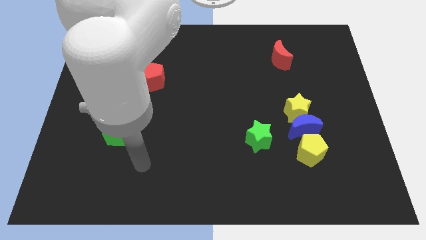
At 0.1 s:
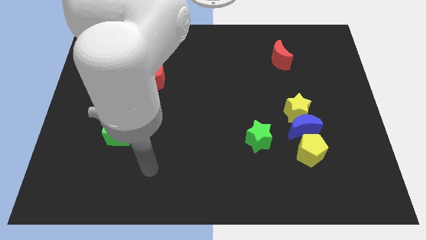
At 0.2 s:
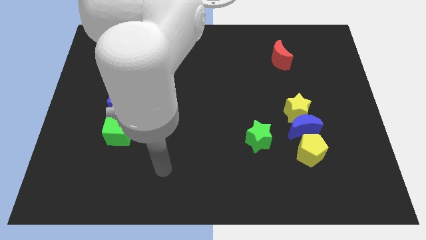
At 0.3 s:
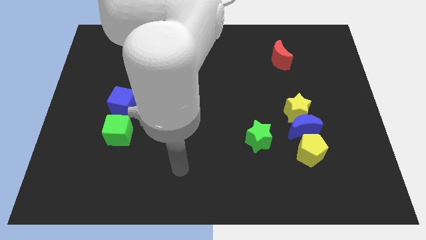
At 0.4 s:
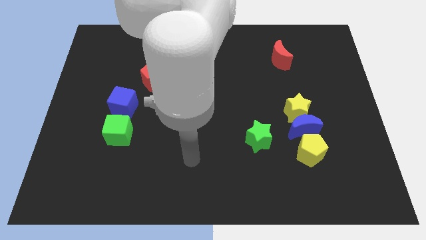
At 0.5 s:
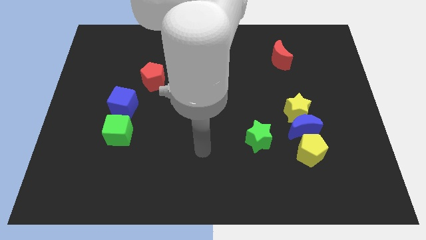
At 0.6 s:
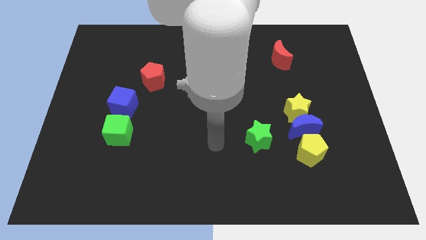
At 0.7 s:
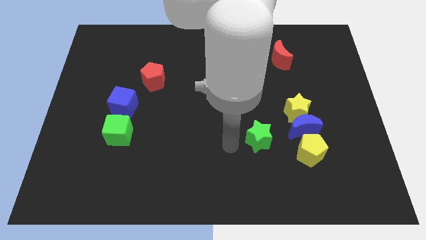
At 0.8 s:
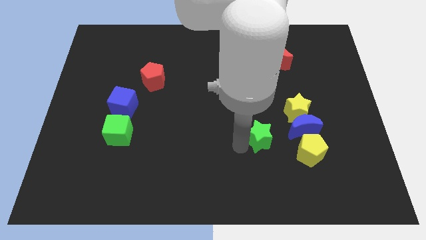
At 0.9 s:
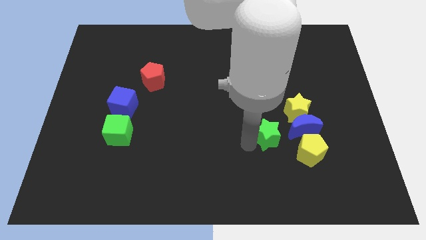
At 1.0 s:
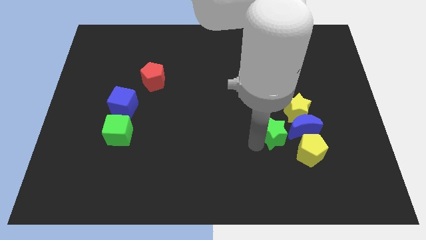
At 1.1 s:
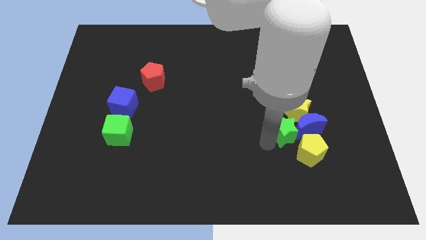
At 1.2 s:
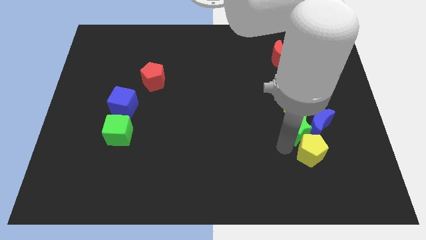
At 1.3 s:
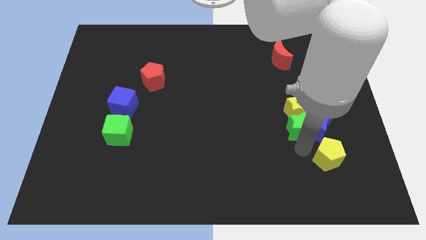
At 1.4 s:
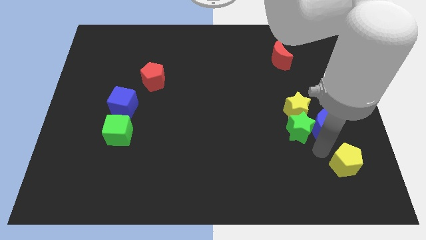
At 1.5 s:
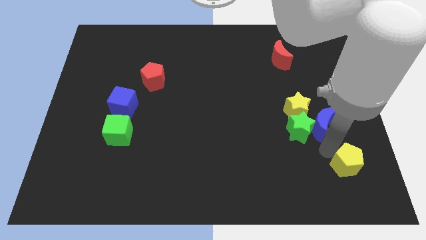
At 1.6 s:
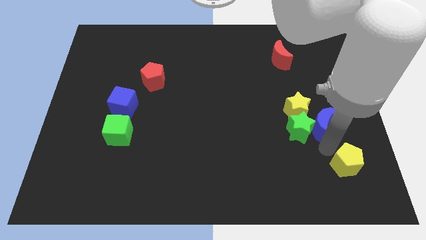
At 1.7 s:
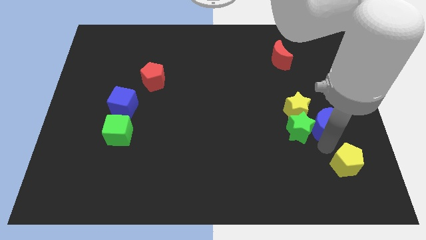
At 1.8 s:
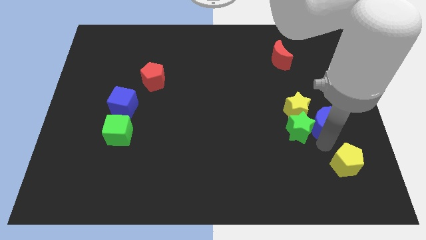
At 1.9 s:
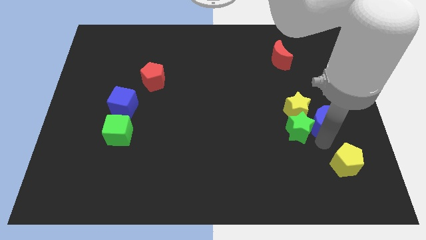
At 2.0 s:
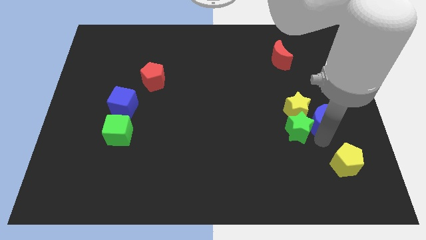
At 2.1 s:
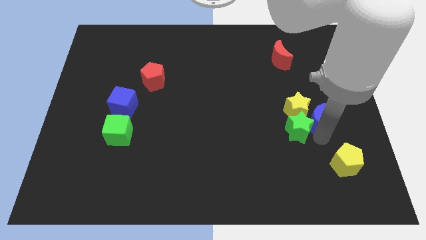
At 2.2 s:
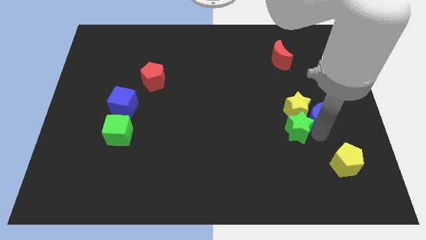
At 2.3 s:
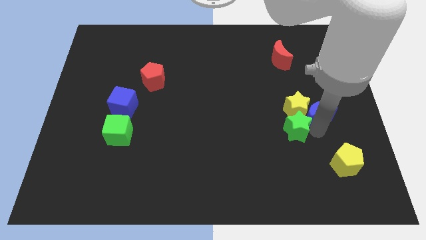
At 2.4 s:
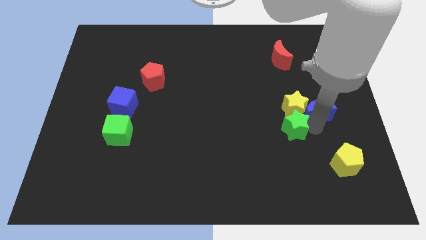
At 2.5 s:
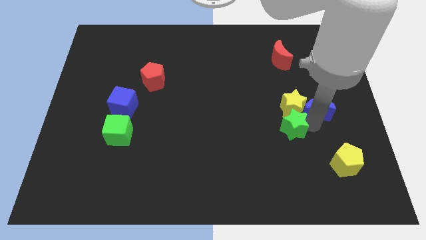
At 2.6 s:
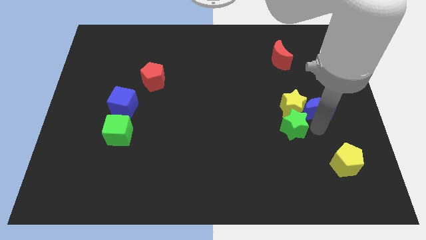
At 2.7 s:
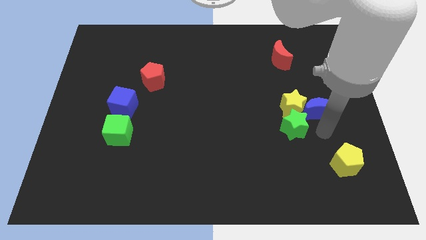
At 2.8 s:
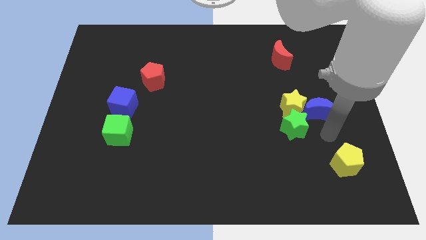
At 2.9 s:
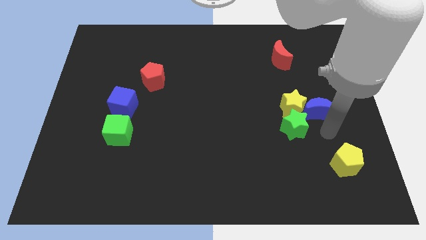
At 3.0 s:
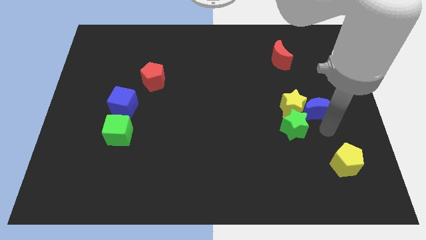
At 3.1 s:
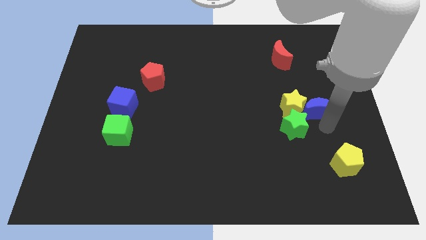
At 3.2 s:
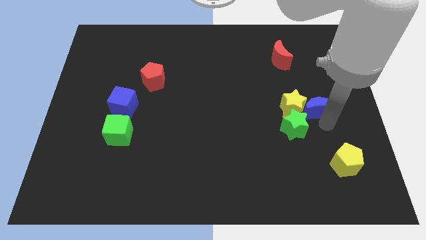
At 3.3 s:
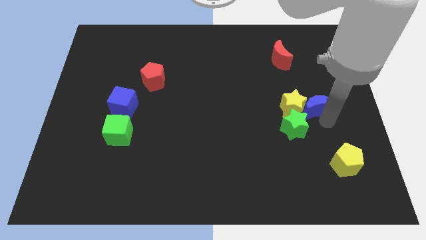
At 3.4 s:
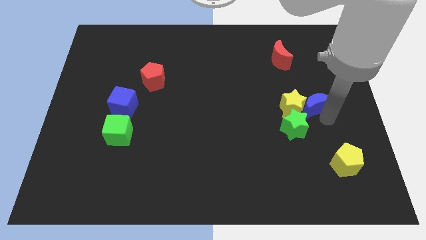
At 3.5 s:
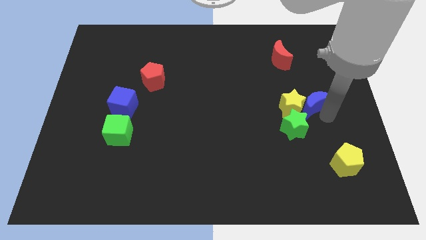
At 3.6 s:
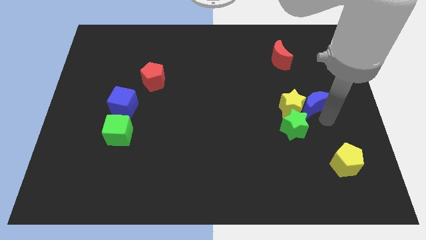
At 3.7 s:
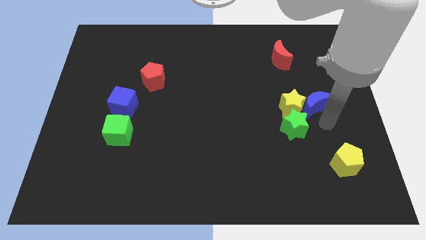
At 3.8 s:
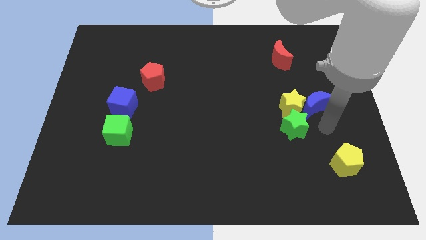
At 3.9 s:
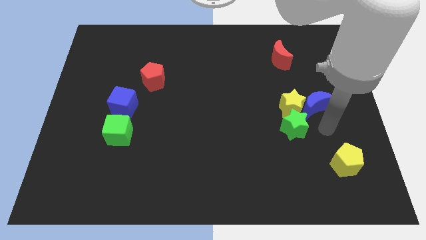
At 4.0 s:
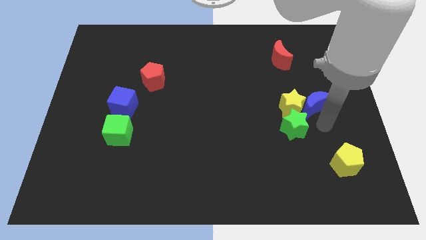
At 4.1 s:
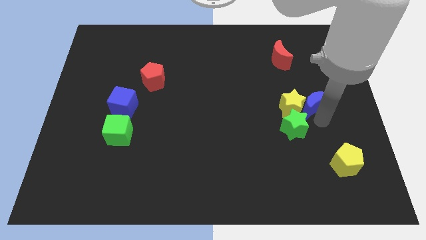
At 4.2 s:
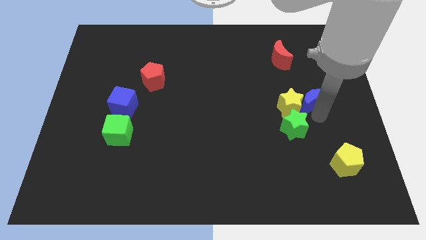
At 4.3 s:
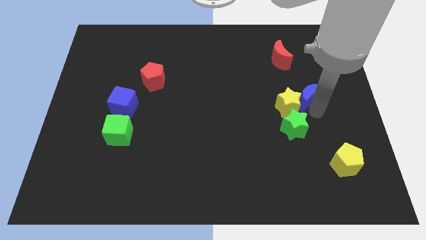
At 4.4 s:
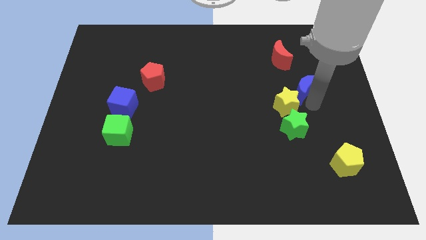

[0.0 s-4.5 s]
push the blue moon above the yellow star

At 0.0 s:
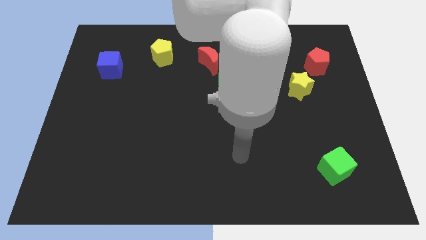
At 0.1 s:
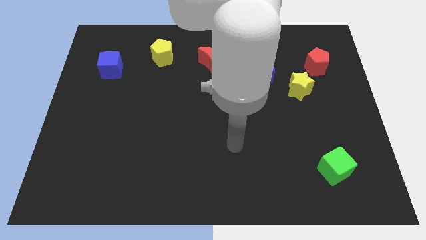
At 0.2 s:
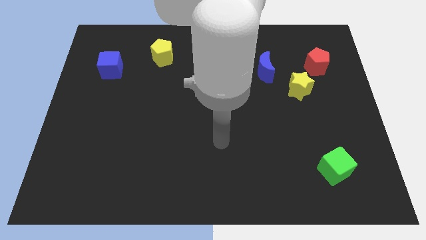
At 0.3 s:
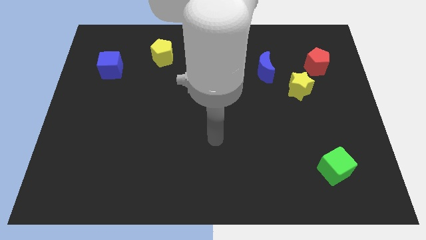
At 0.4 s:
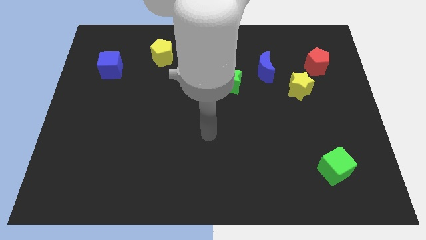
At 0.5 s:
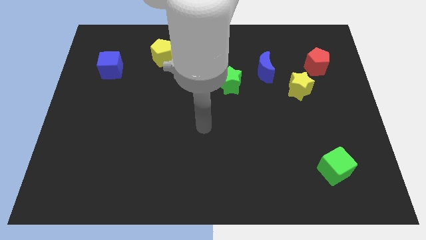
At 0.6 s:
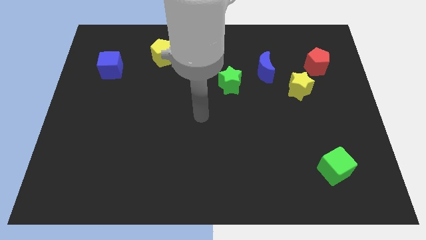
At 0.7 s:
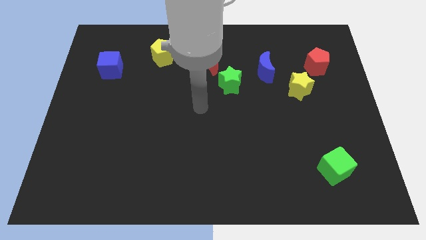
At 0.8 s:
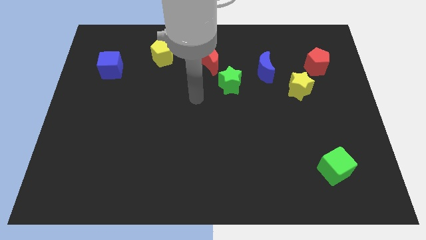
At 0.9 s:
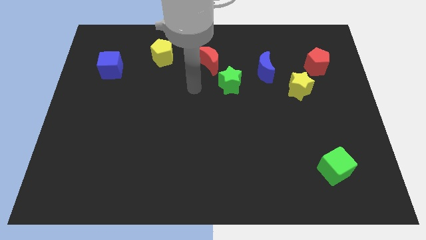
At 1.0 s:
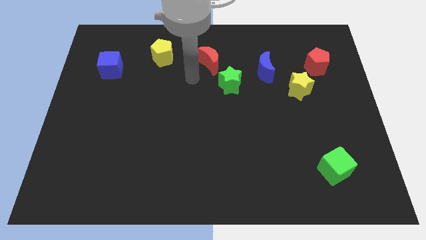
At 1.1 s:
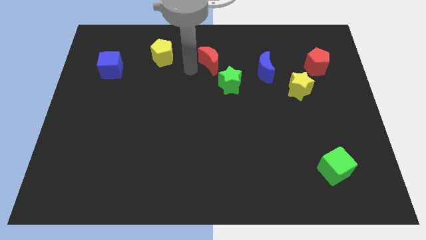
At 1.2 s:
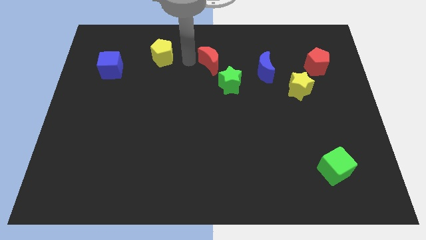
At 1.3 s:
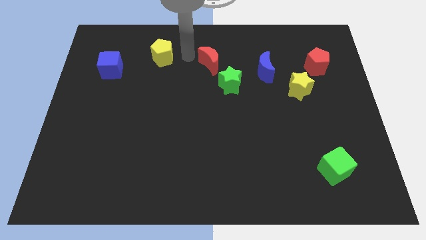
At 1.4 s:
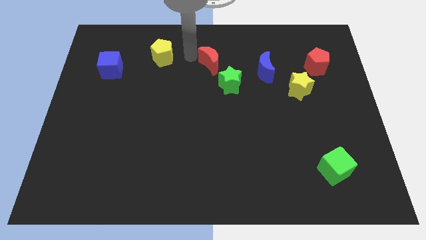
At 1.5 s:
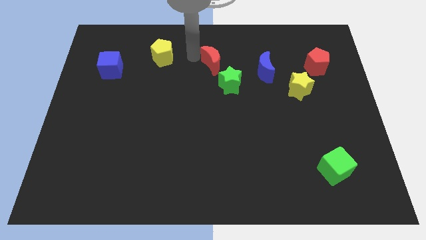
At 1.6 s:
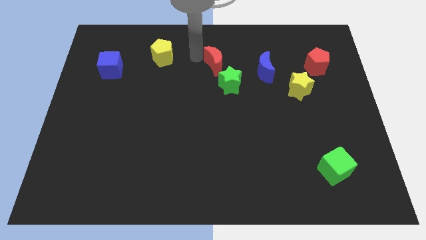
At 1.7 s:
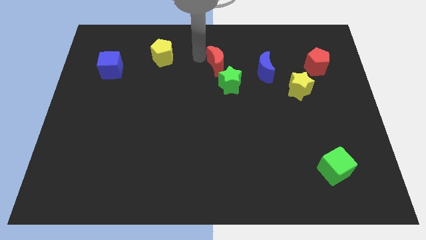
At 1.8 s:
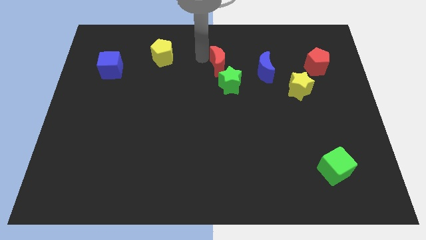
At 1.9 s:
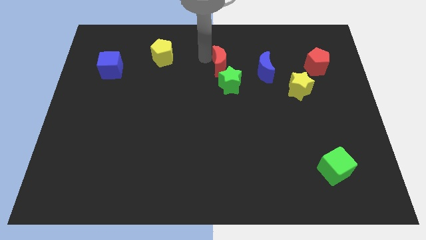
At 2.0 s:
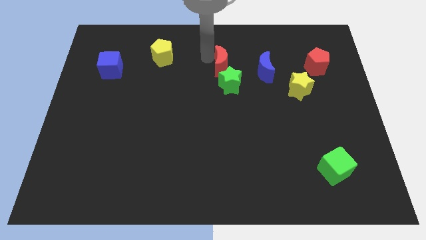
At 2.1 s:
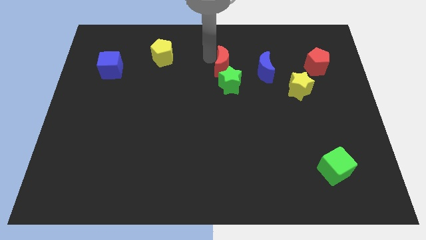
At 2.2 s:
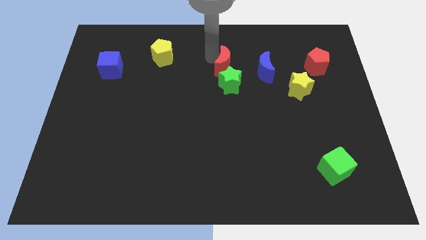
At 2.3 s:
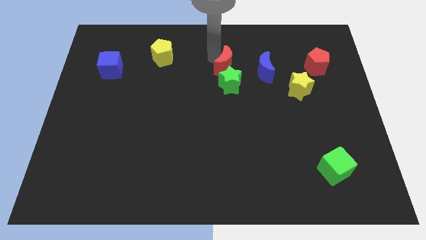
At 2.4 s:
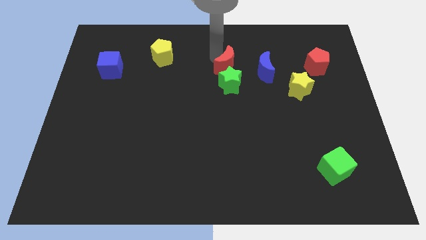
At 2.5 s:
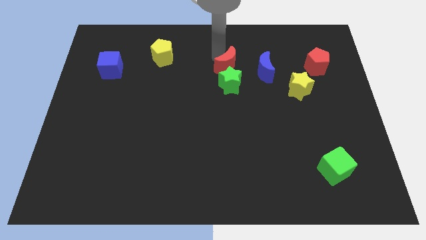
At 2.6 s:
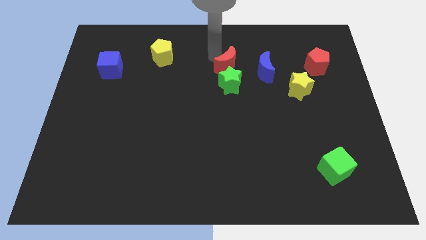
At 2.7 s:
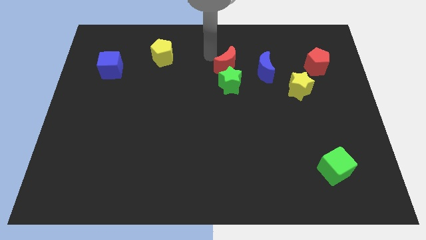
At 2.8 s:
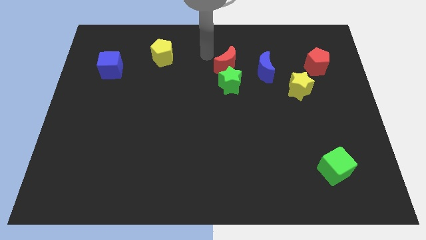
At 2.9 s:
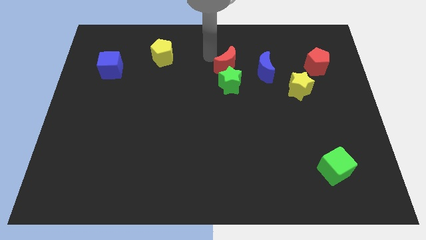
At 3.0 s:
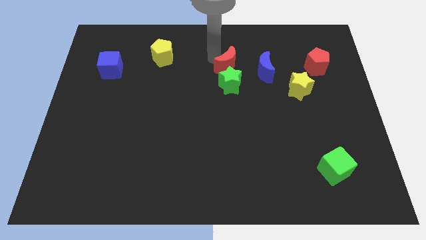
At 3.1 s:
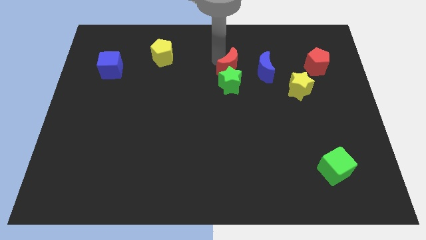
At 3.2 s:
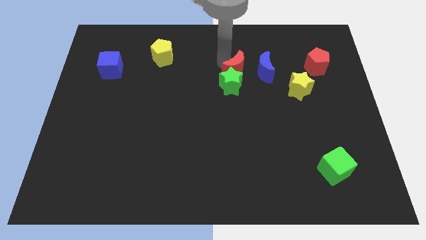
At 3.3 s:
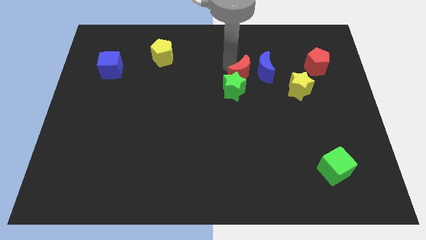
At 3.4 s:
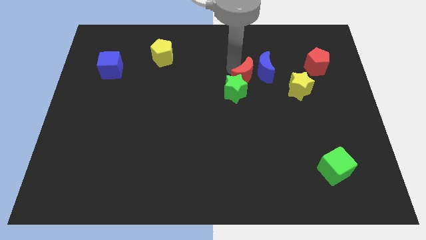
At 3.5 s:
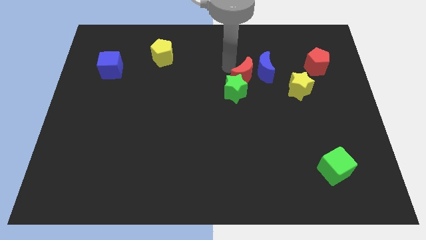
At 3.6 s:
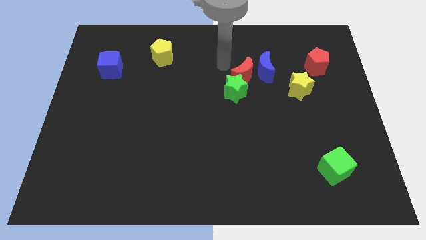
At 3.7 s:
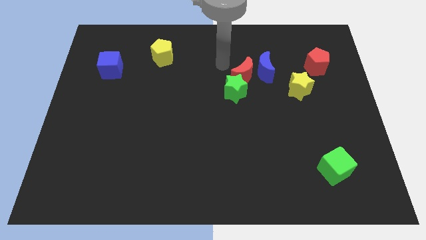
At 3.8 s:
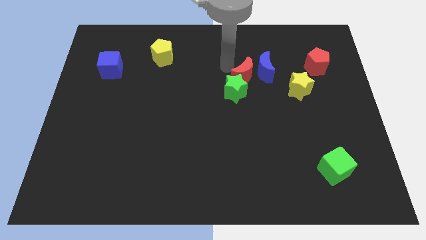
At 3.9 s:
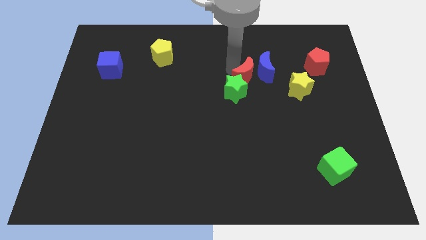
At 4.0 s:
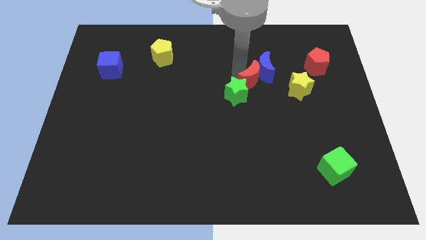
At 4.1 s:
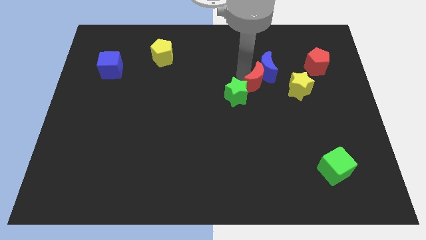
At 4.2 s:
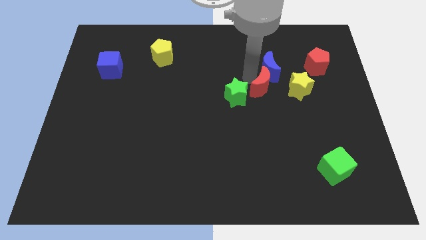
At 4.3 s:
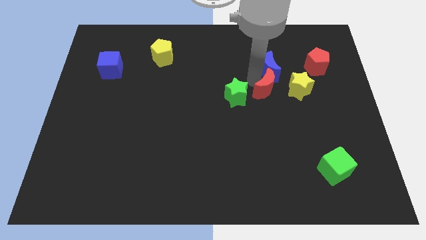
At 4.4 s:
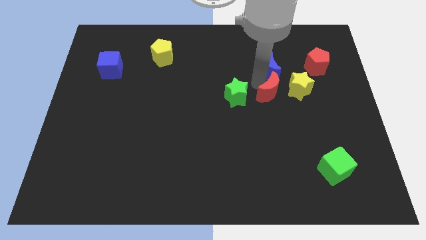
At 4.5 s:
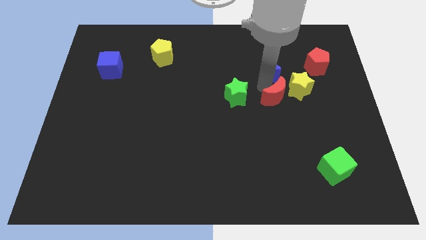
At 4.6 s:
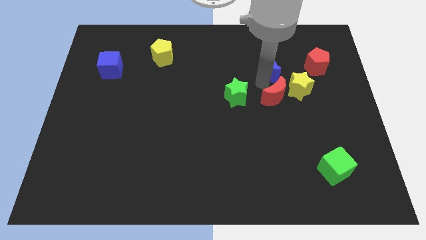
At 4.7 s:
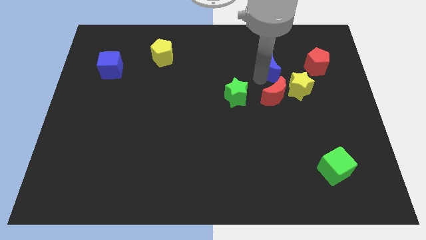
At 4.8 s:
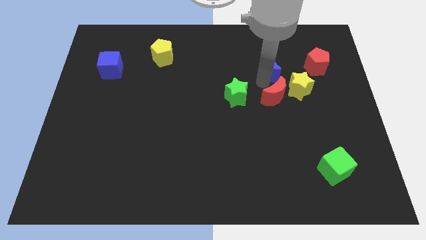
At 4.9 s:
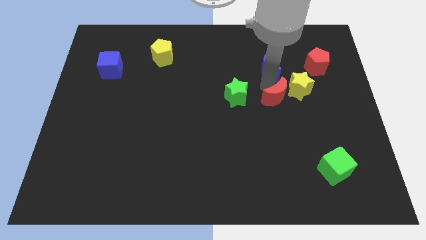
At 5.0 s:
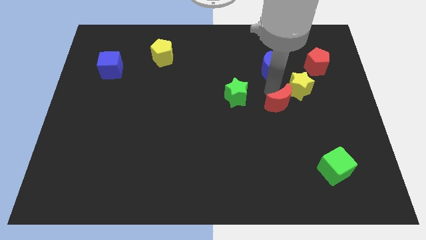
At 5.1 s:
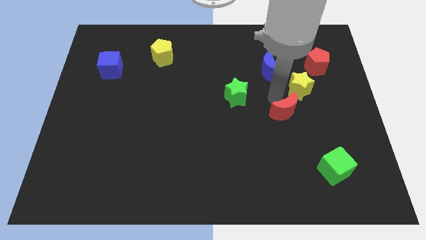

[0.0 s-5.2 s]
put the red moon to the bottom of the yellow star
